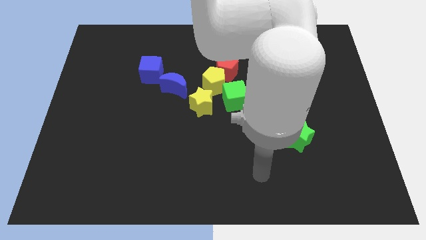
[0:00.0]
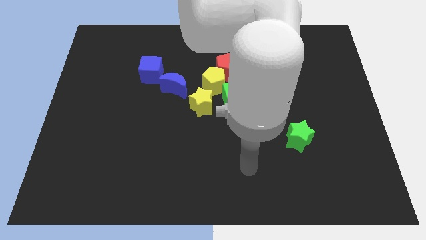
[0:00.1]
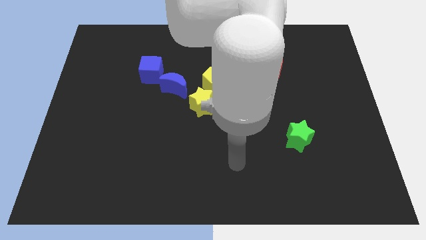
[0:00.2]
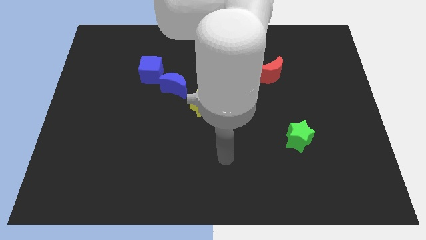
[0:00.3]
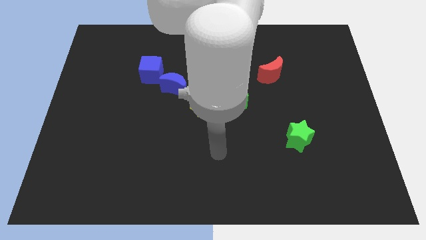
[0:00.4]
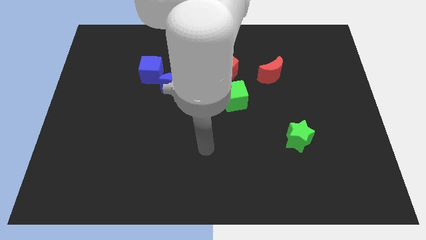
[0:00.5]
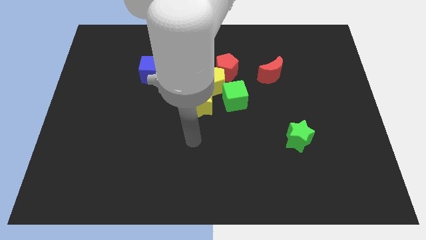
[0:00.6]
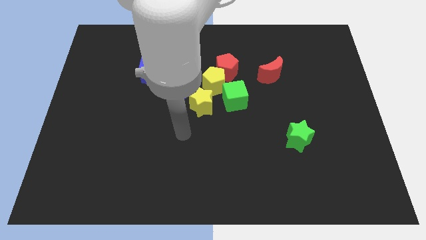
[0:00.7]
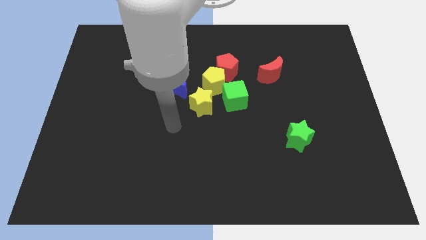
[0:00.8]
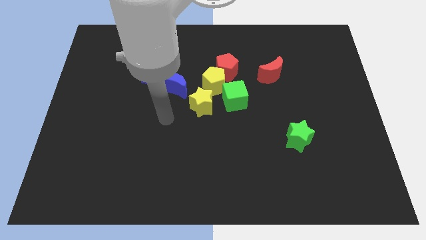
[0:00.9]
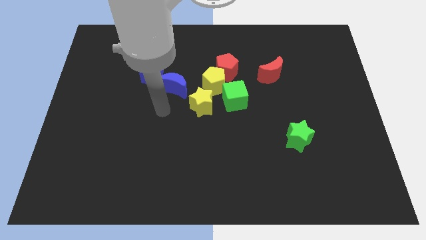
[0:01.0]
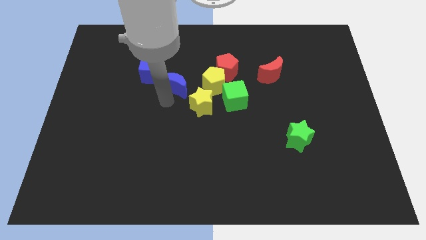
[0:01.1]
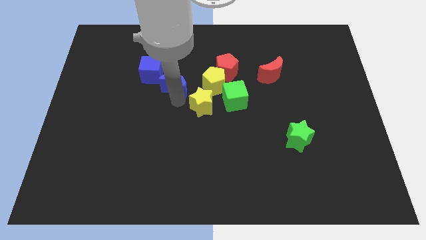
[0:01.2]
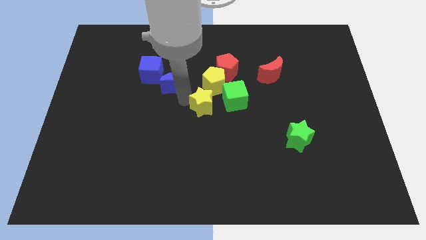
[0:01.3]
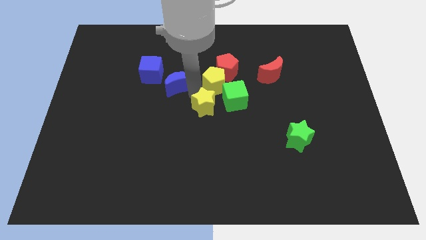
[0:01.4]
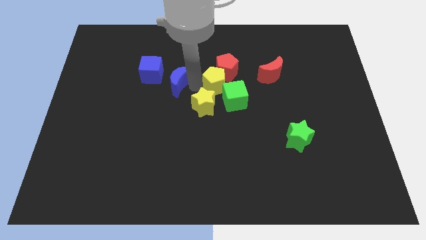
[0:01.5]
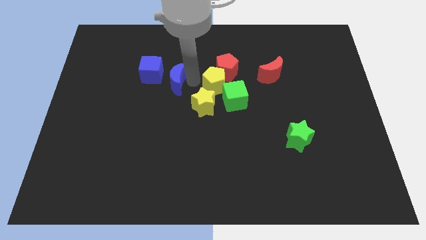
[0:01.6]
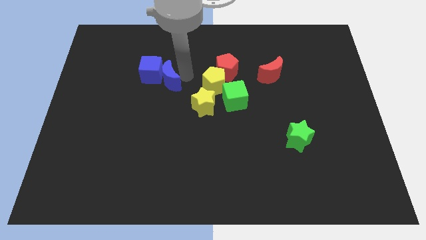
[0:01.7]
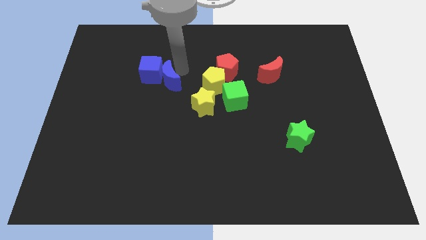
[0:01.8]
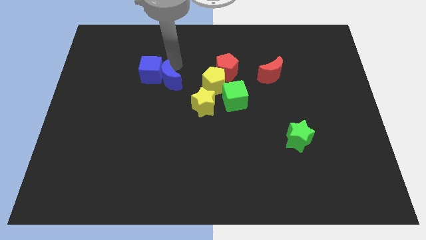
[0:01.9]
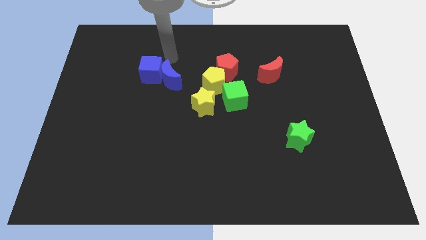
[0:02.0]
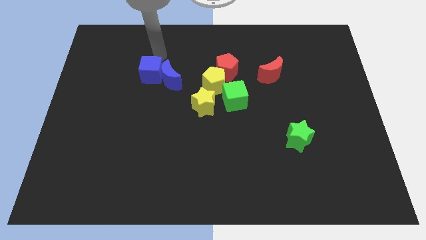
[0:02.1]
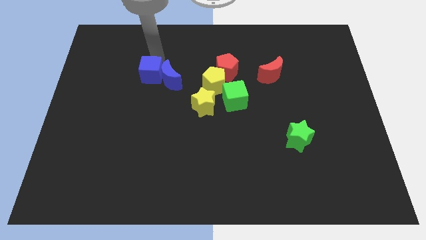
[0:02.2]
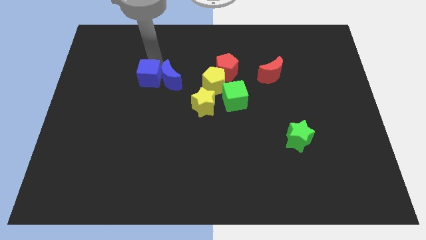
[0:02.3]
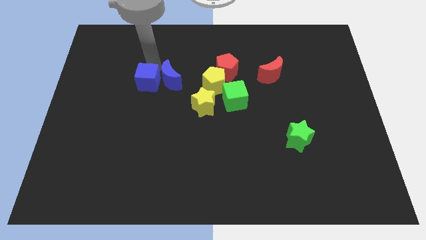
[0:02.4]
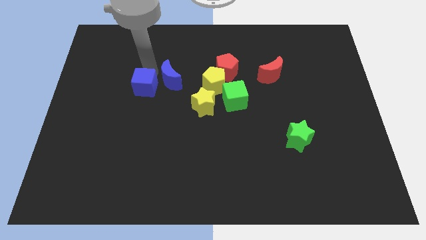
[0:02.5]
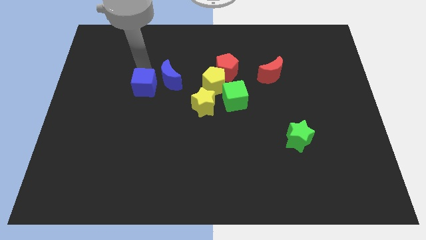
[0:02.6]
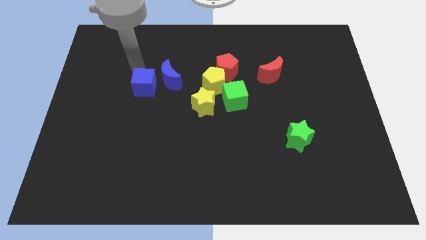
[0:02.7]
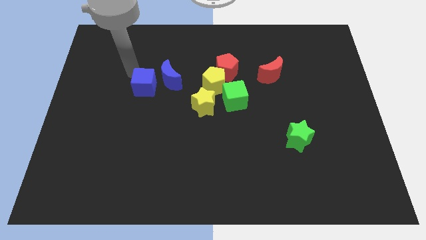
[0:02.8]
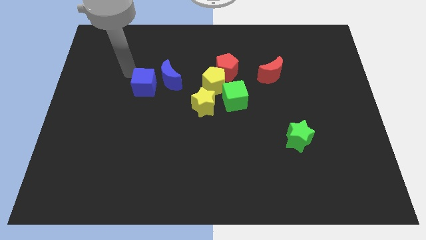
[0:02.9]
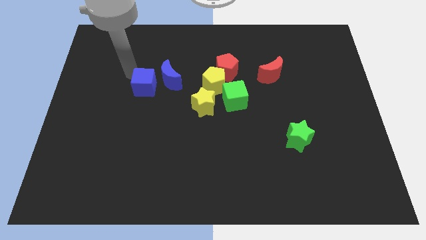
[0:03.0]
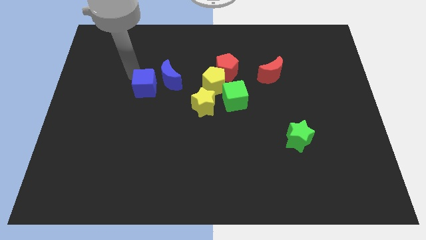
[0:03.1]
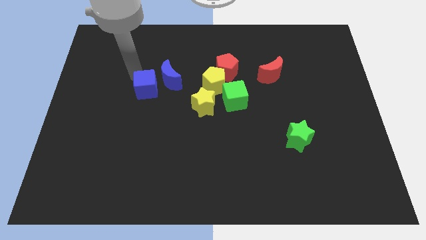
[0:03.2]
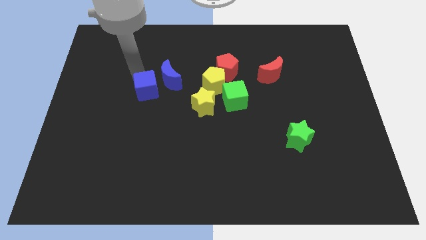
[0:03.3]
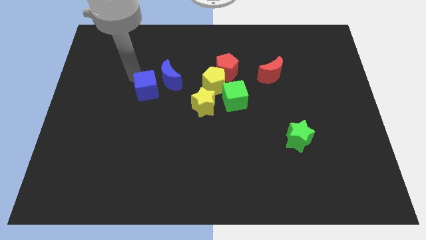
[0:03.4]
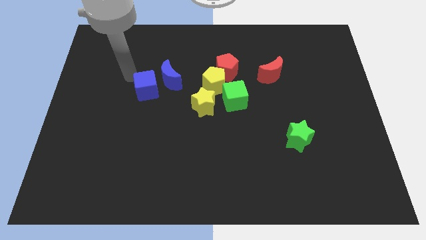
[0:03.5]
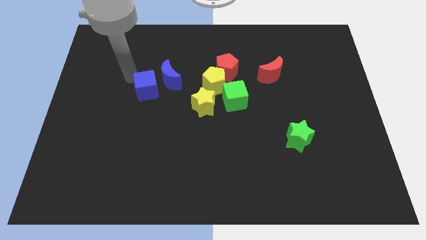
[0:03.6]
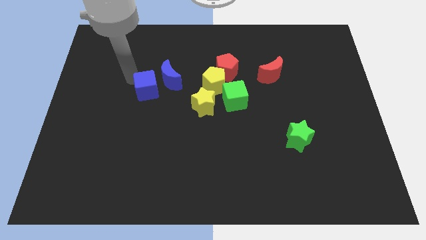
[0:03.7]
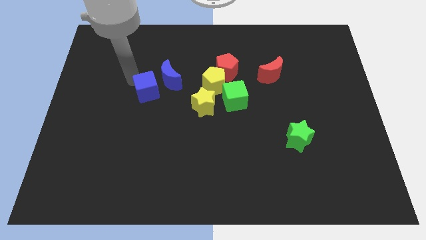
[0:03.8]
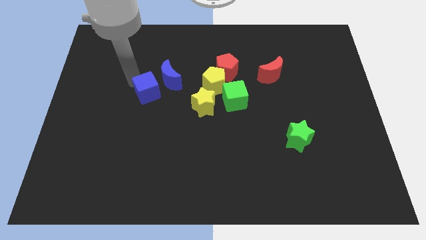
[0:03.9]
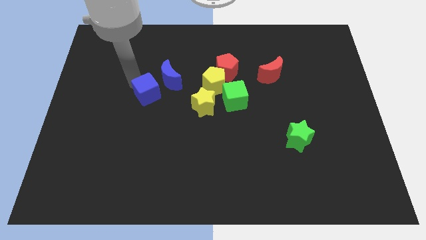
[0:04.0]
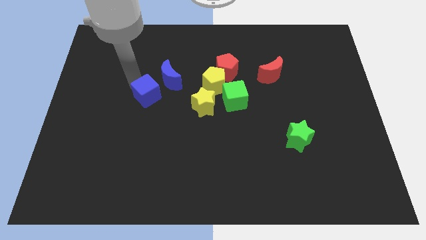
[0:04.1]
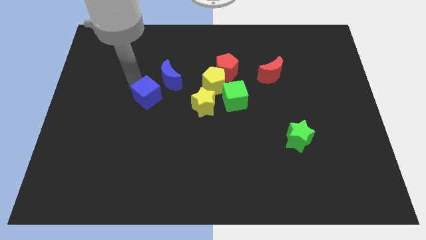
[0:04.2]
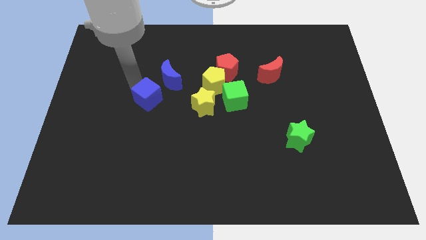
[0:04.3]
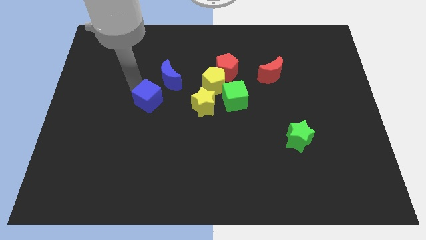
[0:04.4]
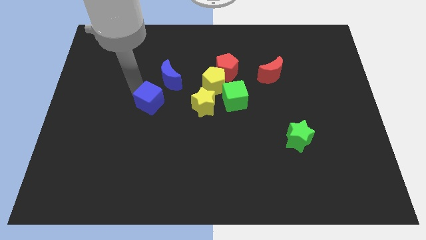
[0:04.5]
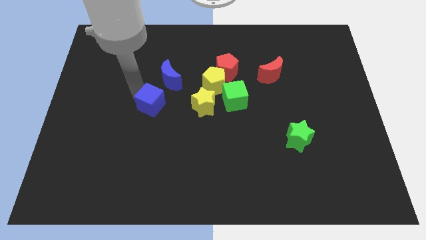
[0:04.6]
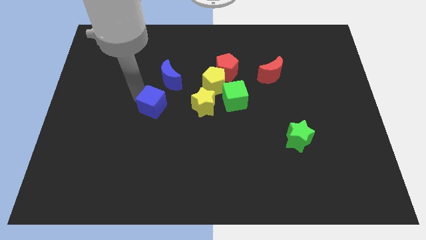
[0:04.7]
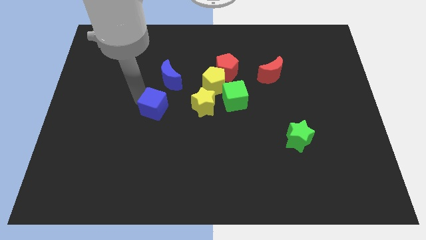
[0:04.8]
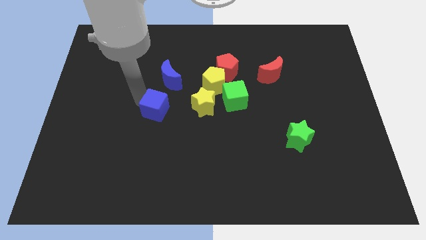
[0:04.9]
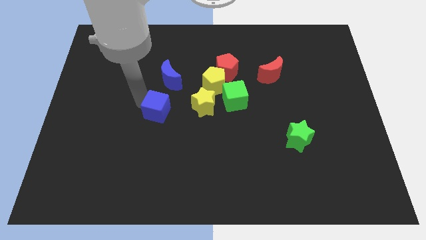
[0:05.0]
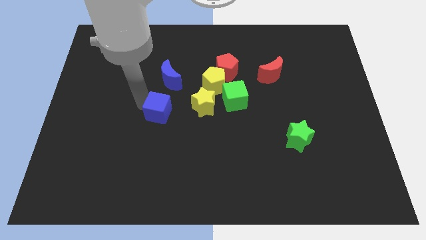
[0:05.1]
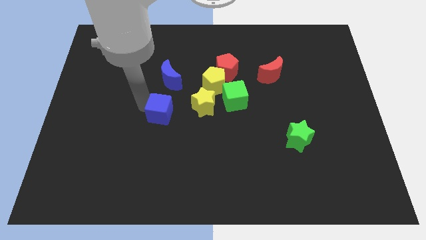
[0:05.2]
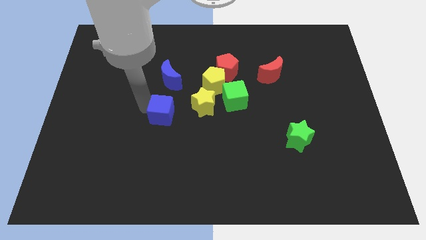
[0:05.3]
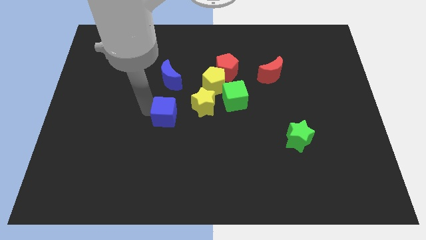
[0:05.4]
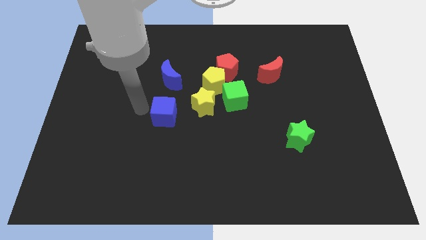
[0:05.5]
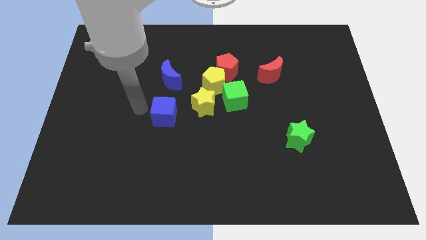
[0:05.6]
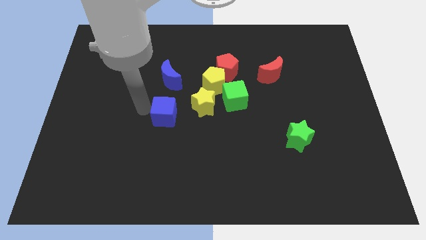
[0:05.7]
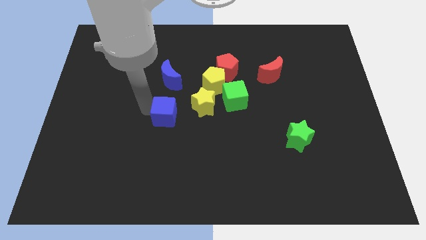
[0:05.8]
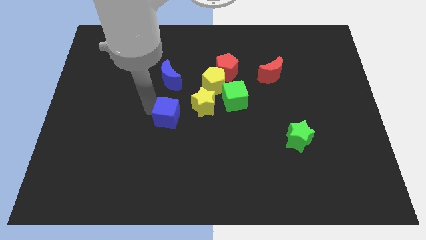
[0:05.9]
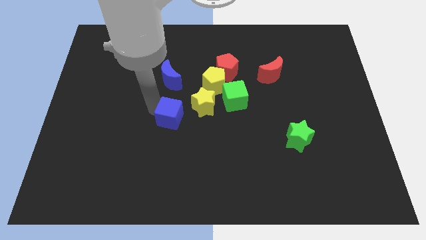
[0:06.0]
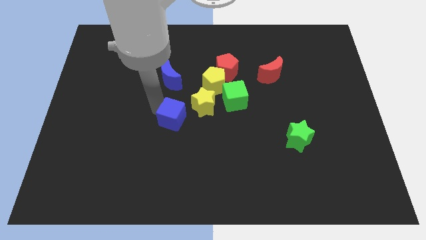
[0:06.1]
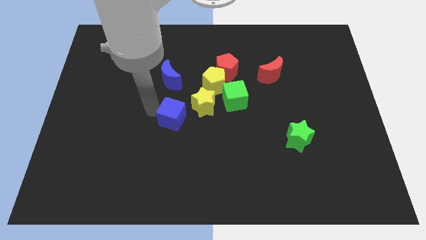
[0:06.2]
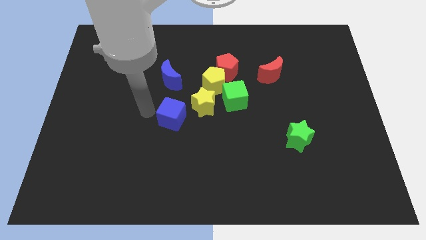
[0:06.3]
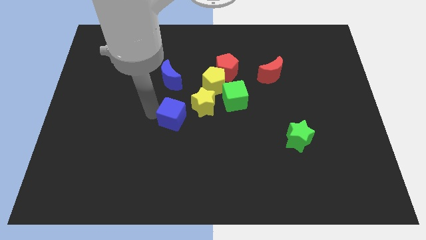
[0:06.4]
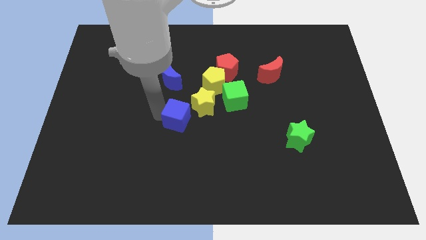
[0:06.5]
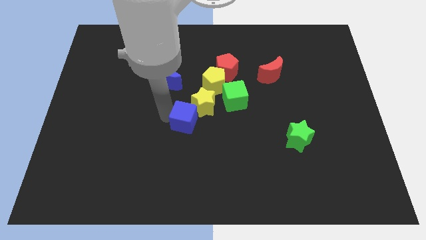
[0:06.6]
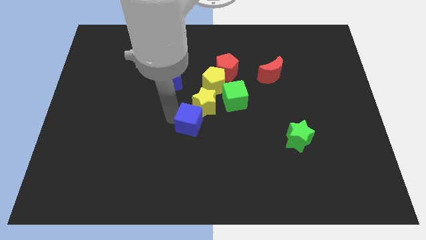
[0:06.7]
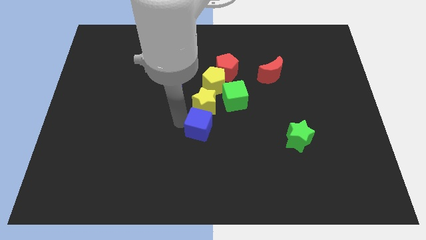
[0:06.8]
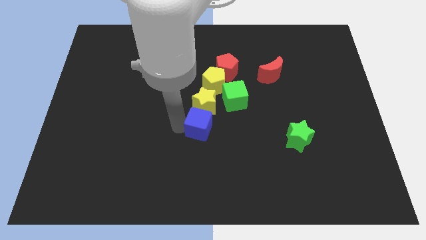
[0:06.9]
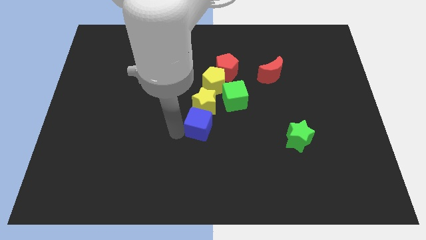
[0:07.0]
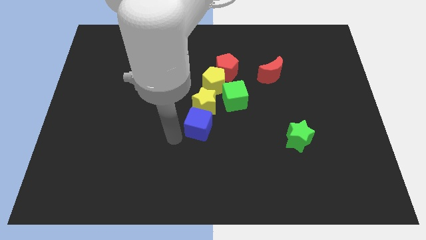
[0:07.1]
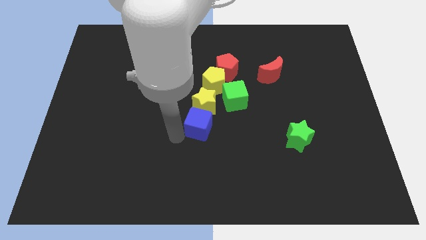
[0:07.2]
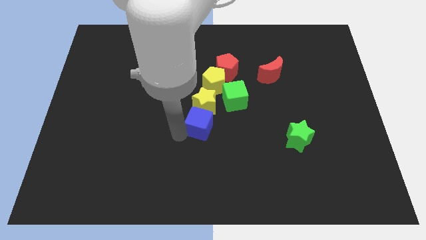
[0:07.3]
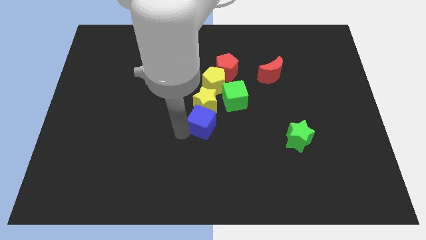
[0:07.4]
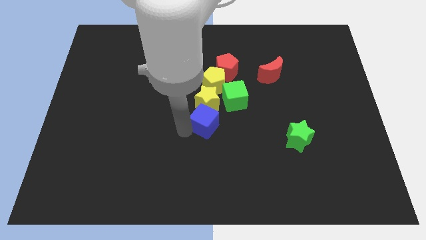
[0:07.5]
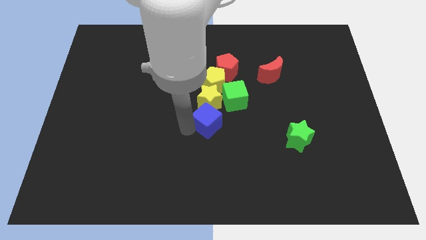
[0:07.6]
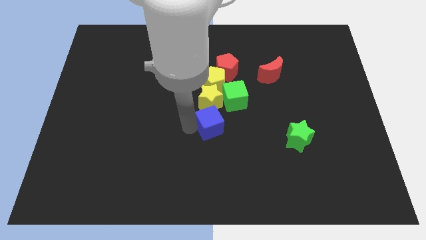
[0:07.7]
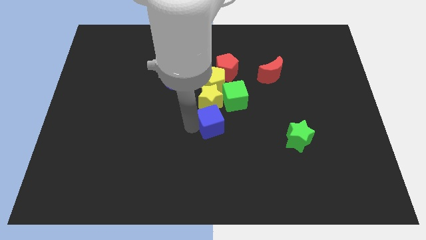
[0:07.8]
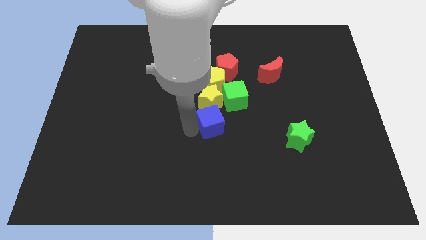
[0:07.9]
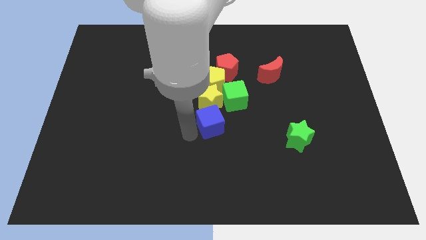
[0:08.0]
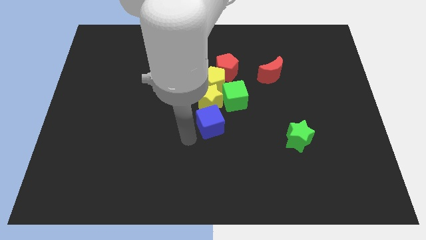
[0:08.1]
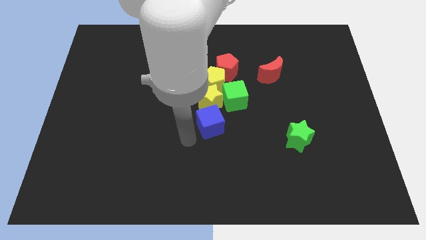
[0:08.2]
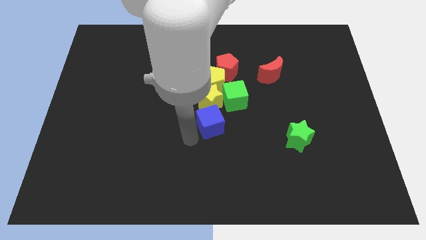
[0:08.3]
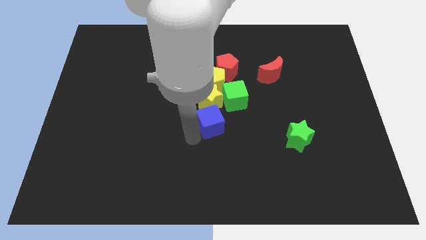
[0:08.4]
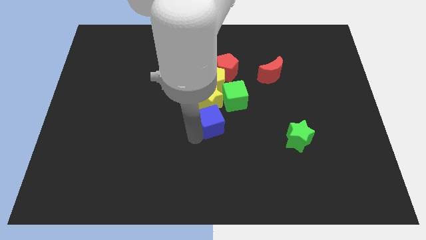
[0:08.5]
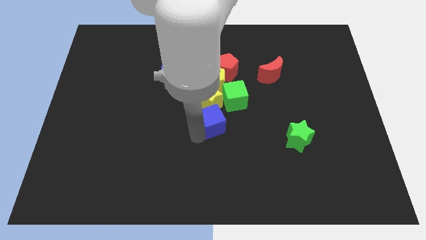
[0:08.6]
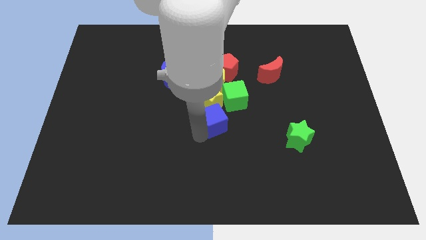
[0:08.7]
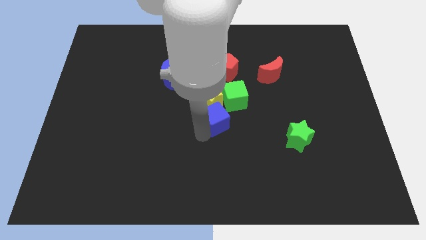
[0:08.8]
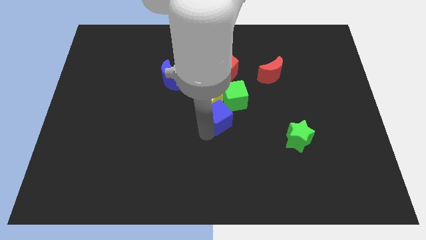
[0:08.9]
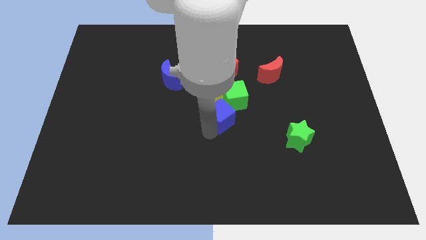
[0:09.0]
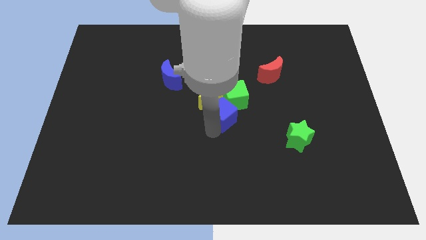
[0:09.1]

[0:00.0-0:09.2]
put the blue cube to the green cube
